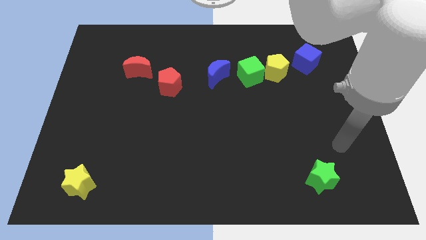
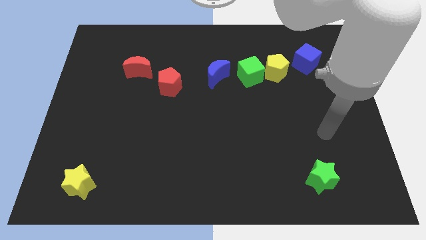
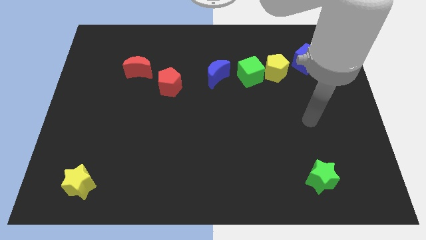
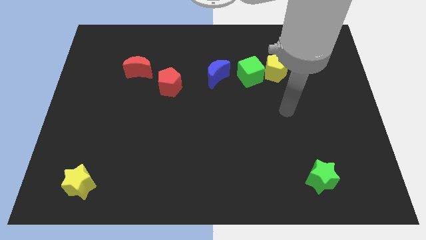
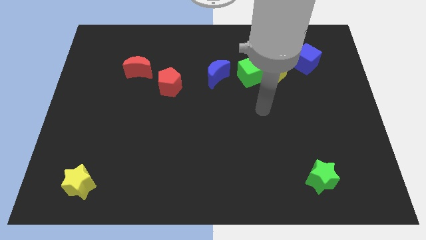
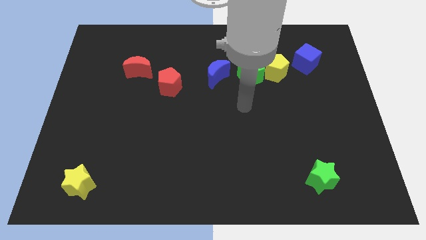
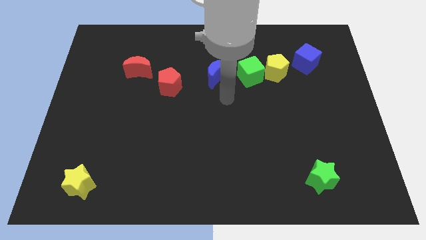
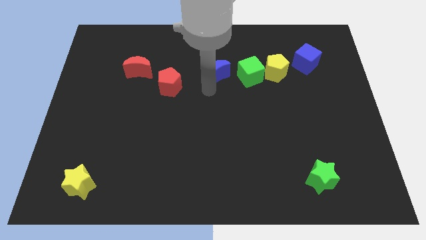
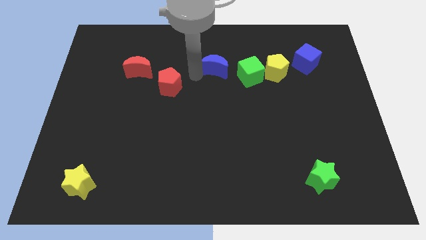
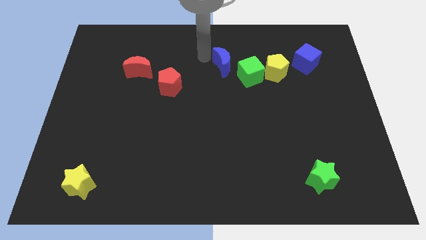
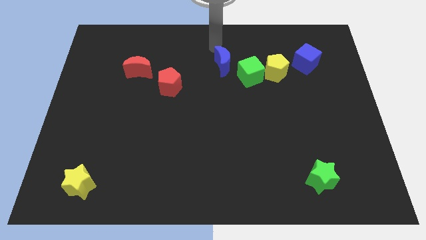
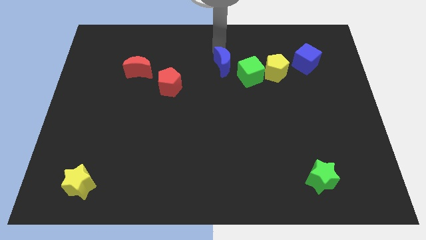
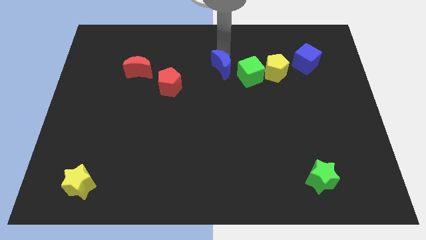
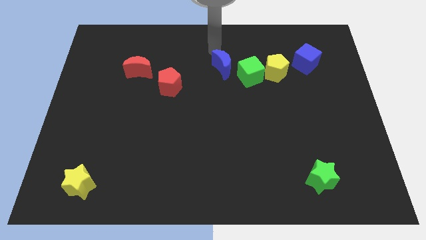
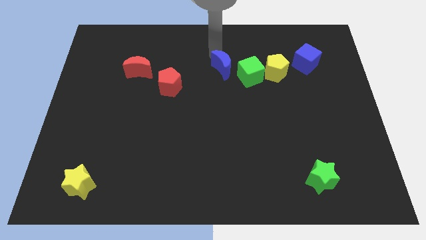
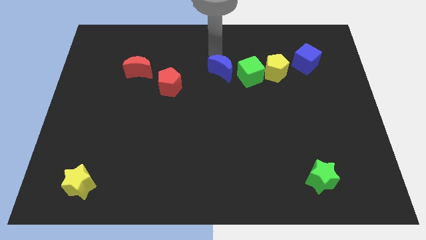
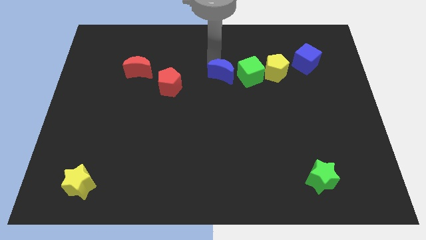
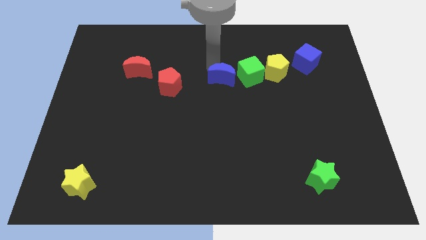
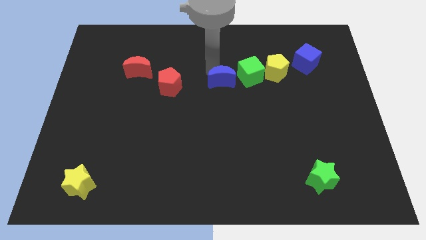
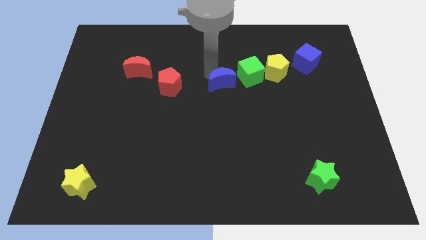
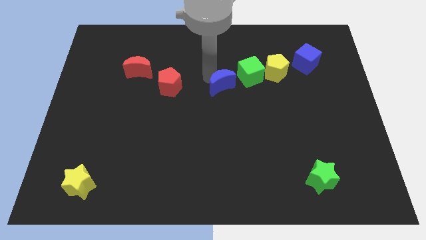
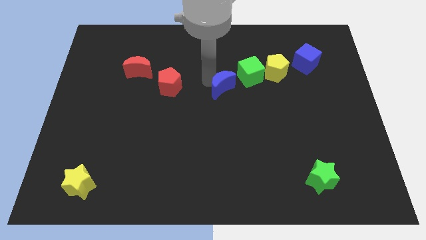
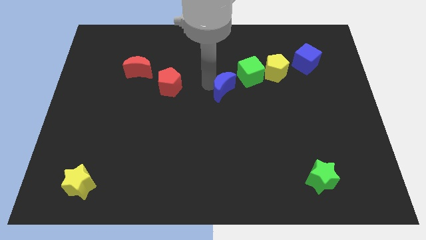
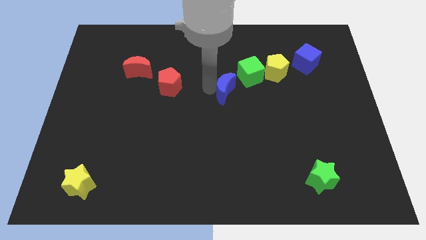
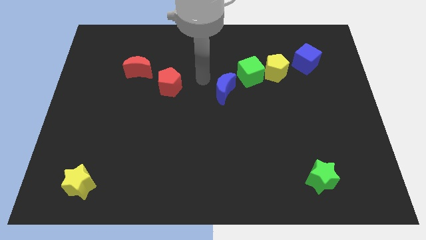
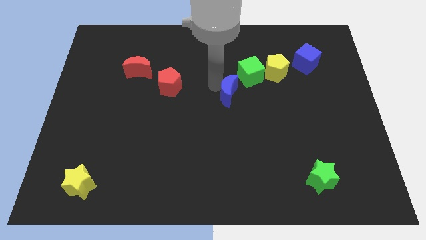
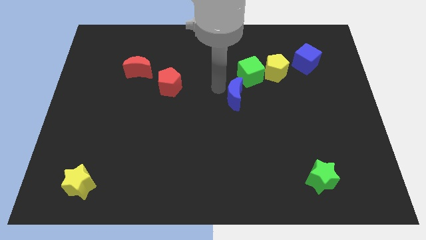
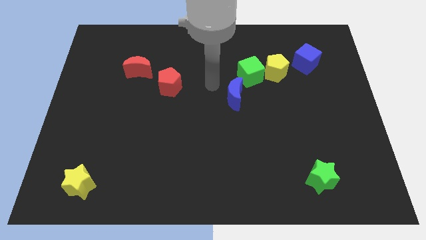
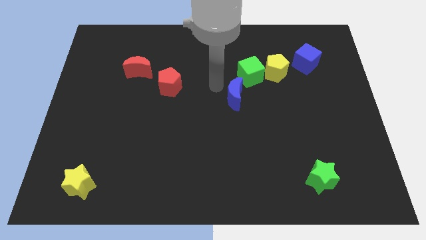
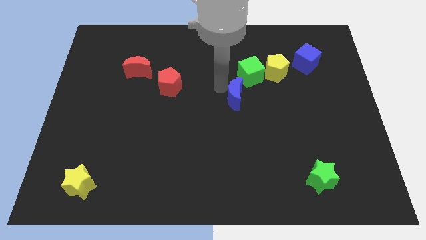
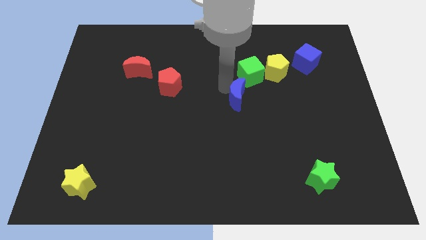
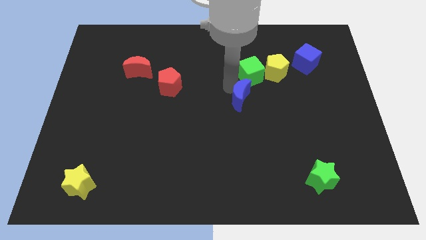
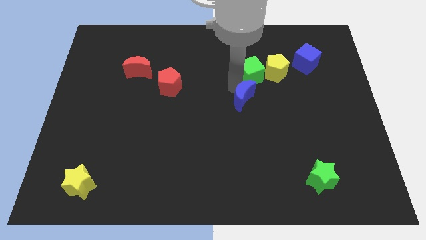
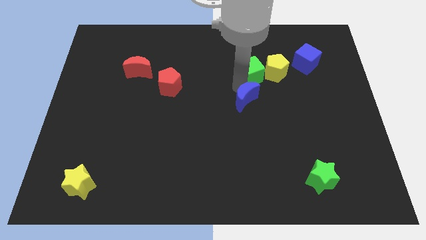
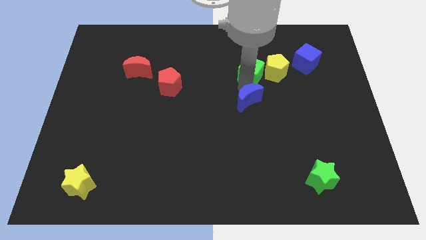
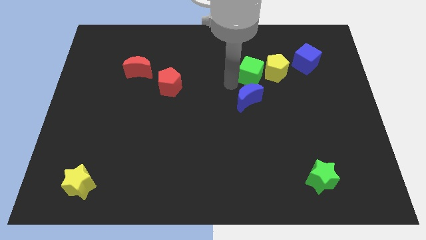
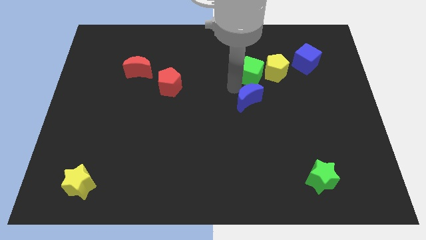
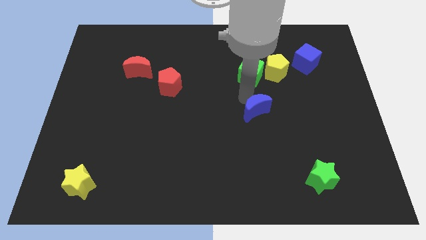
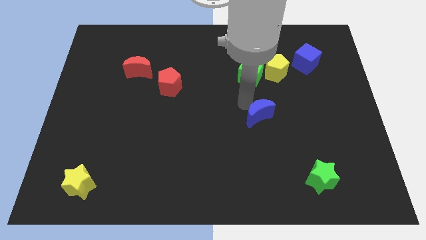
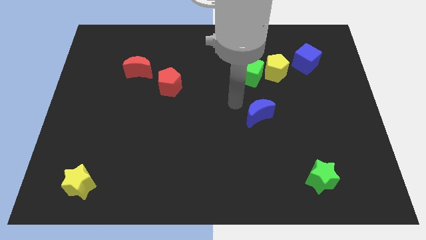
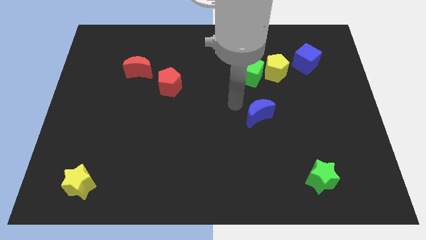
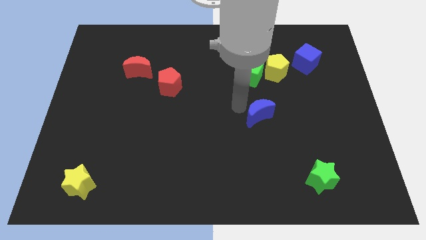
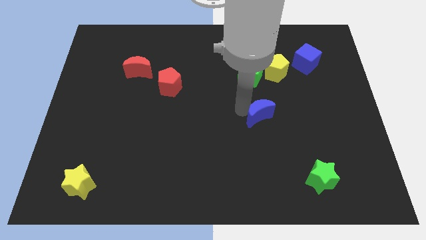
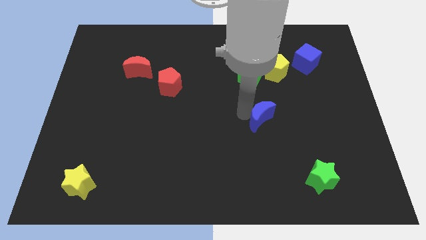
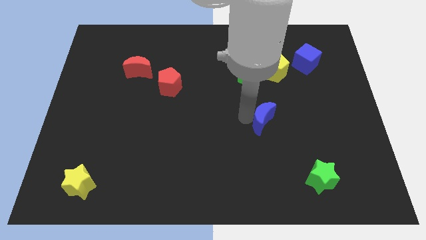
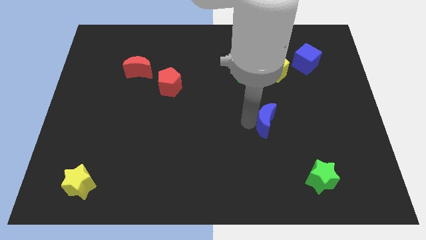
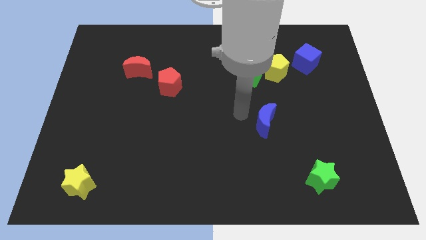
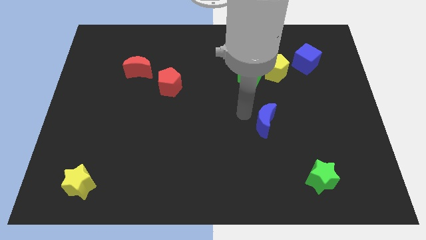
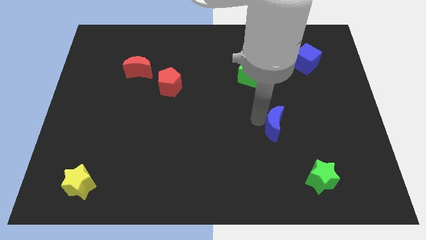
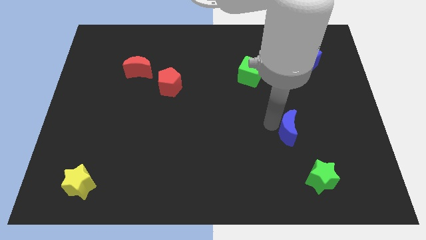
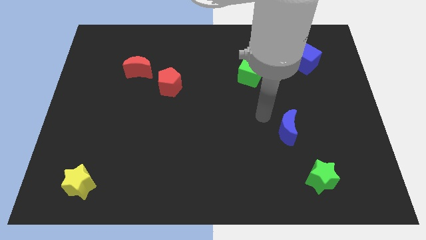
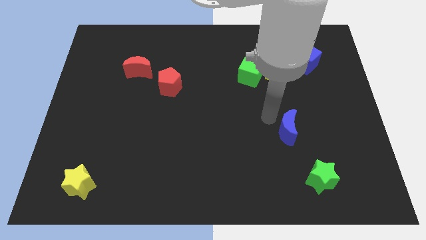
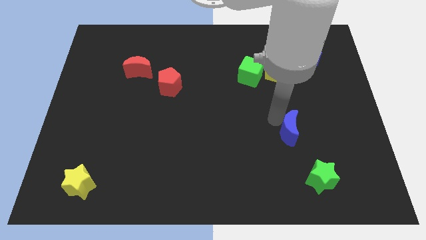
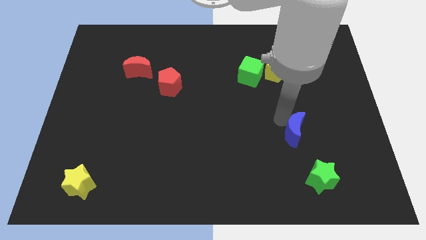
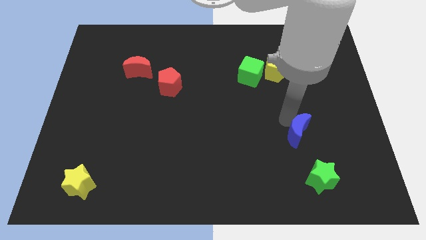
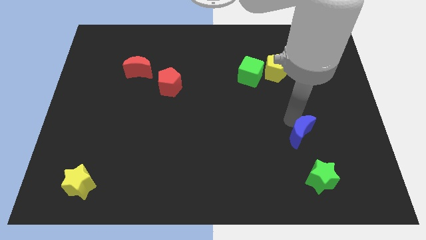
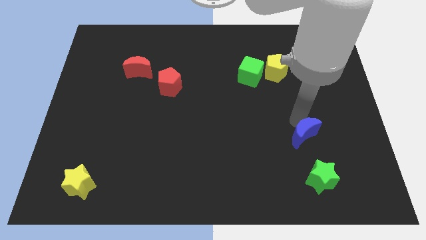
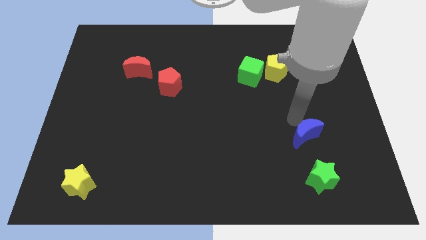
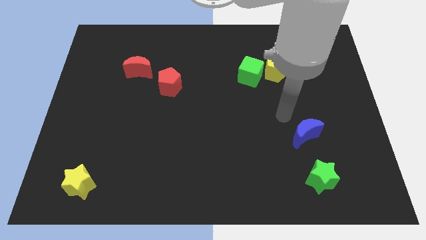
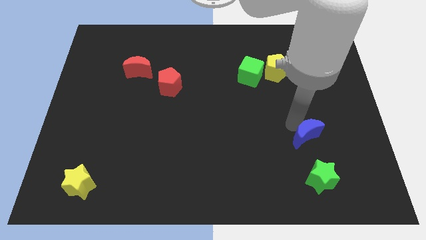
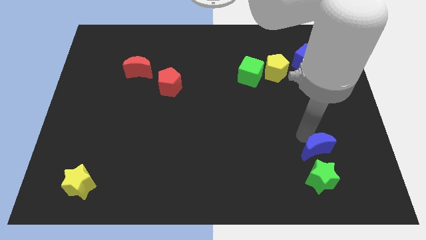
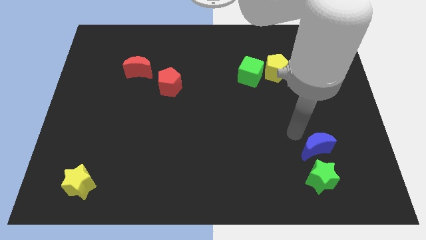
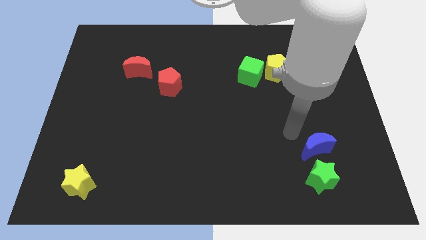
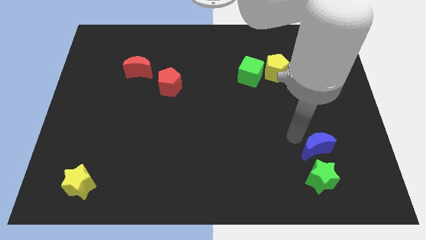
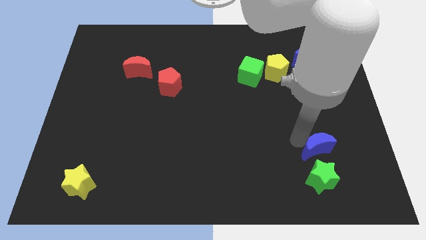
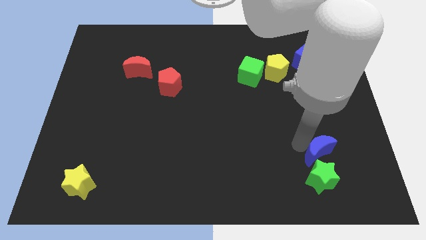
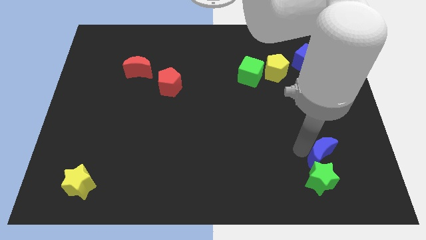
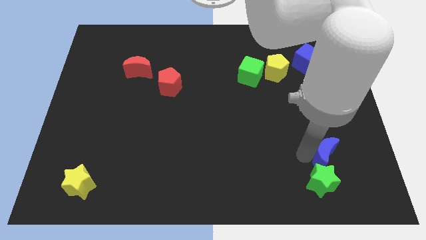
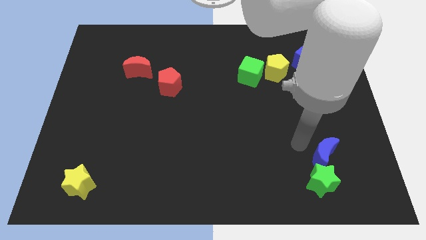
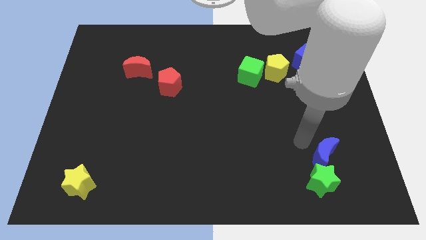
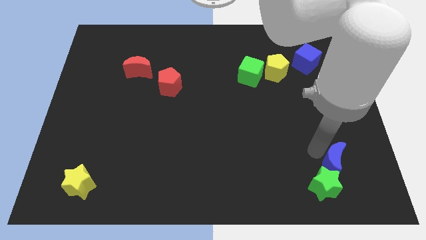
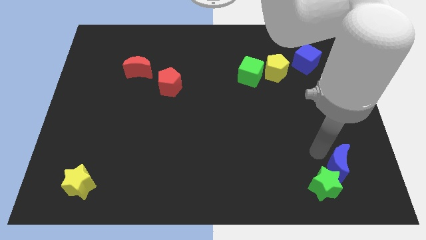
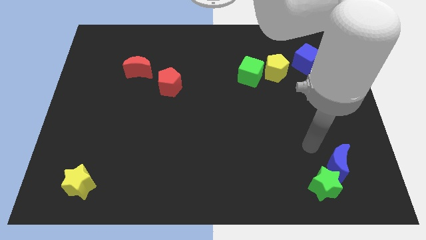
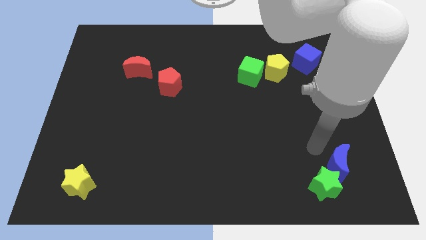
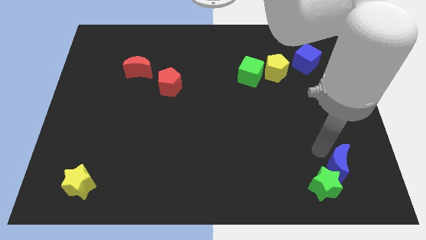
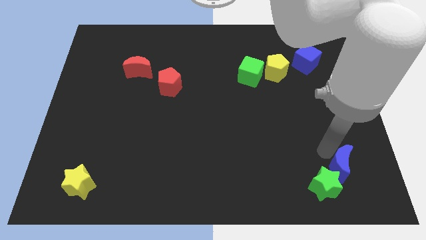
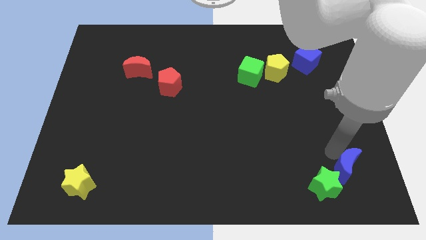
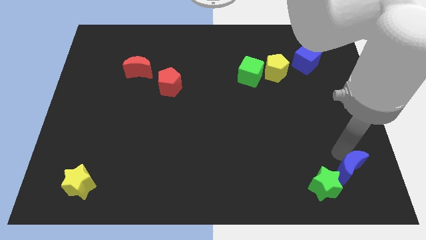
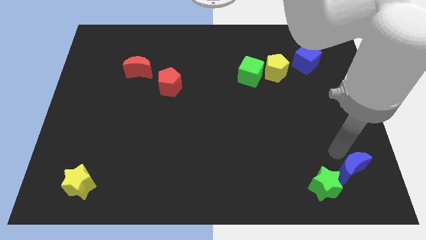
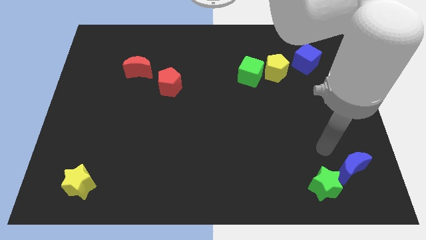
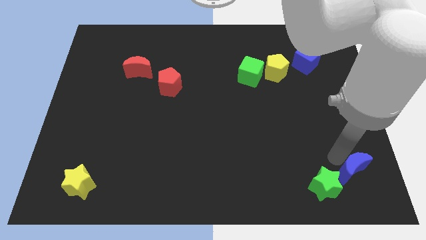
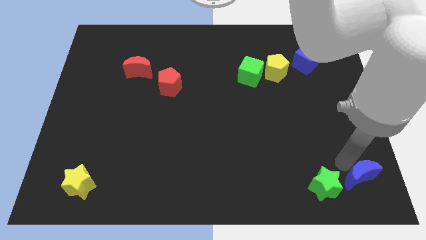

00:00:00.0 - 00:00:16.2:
move the blue moon to the bottom right corner
